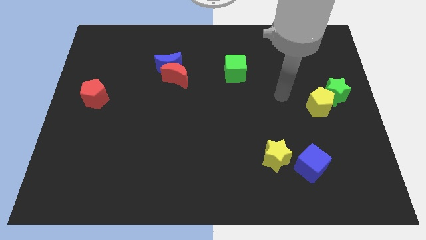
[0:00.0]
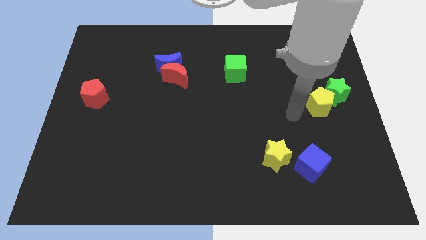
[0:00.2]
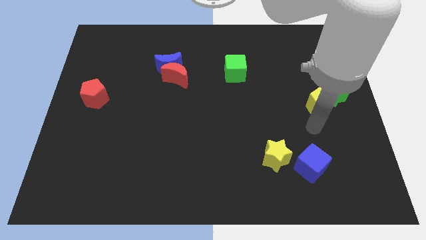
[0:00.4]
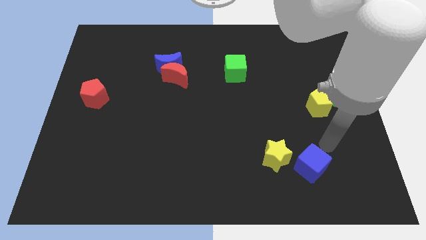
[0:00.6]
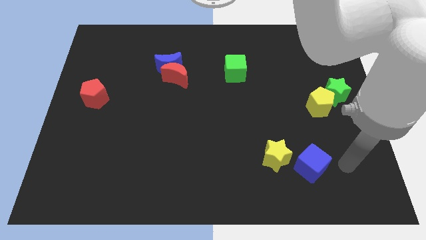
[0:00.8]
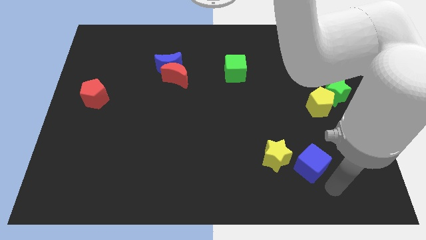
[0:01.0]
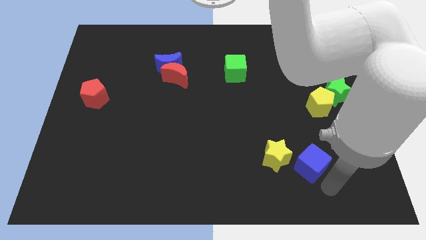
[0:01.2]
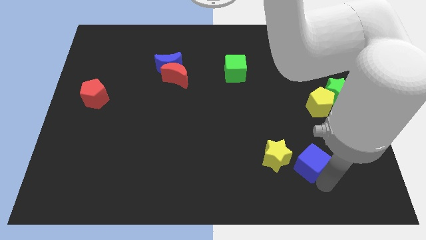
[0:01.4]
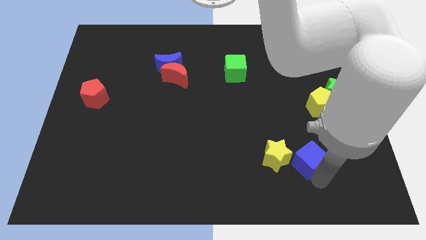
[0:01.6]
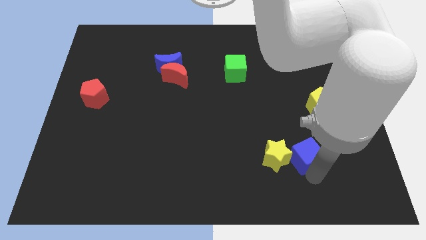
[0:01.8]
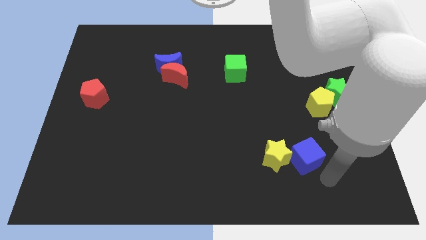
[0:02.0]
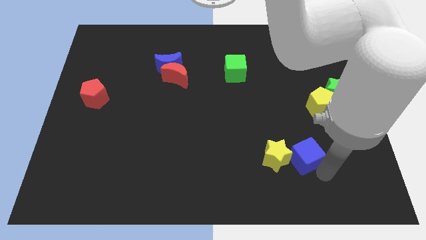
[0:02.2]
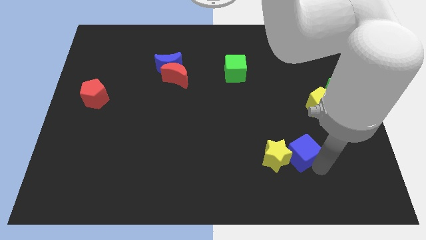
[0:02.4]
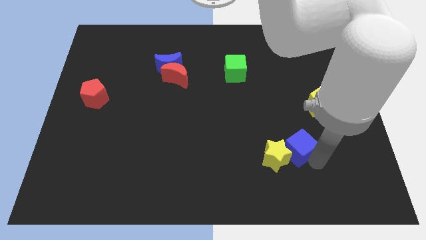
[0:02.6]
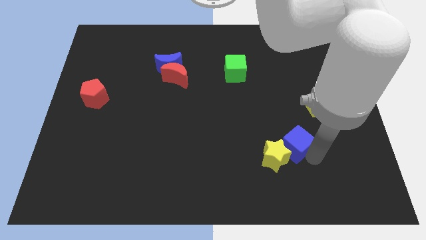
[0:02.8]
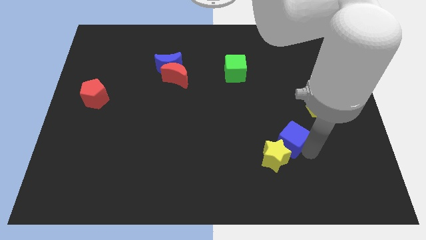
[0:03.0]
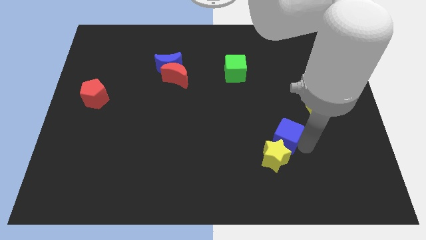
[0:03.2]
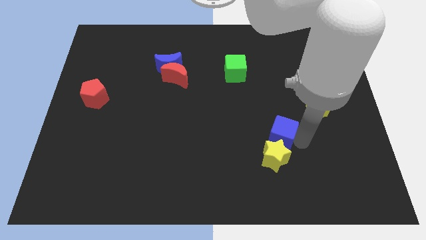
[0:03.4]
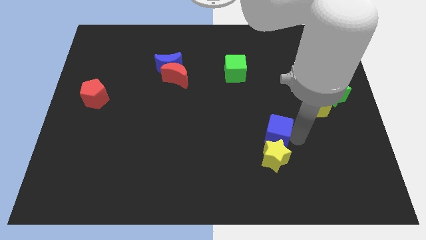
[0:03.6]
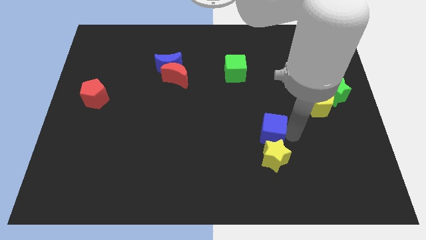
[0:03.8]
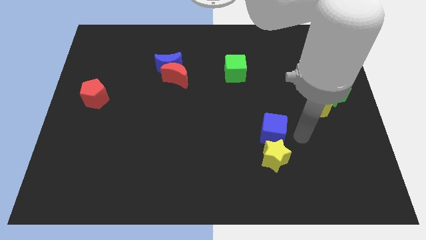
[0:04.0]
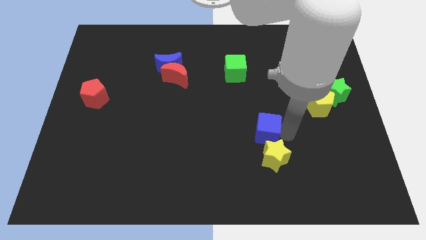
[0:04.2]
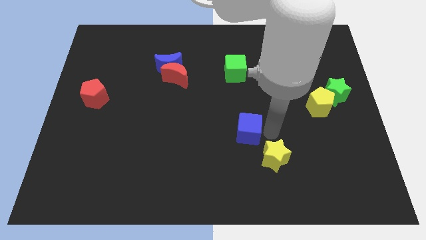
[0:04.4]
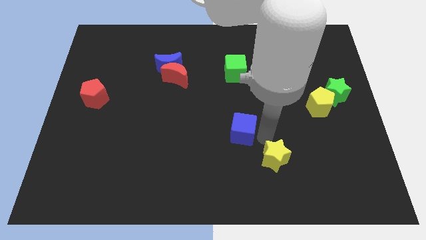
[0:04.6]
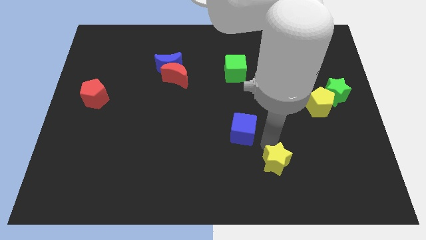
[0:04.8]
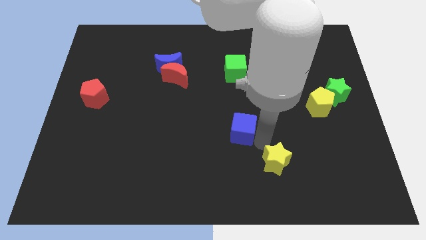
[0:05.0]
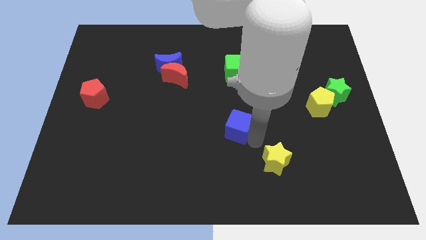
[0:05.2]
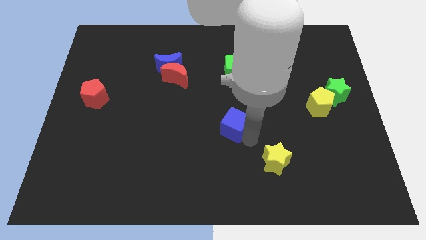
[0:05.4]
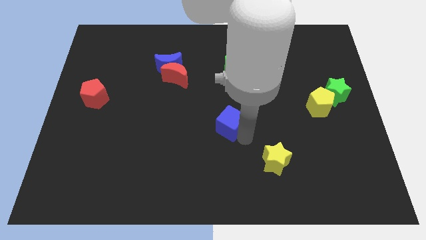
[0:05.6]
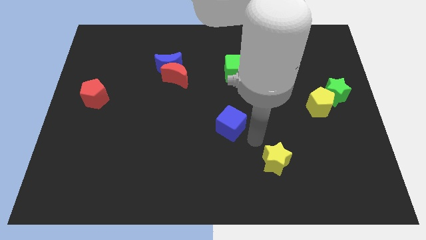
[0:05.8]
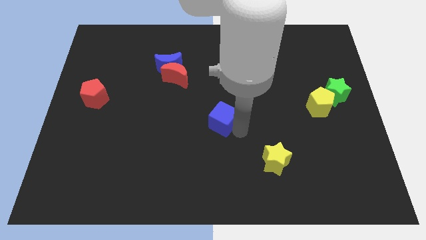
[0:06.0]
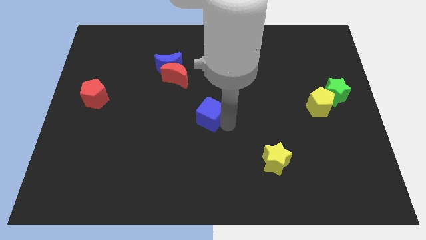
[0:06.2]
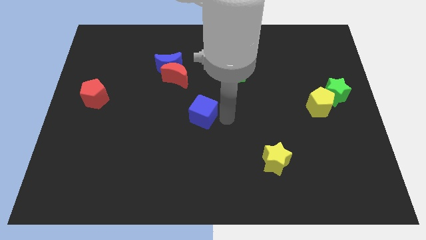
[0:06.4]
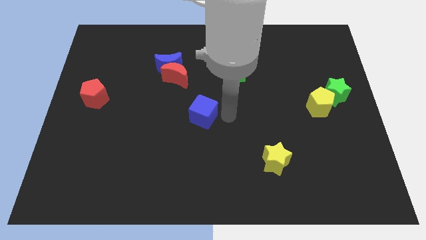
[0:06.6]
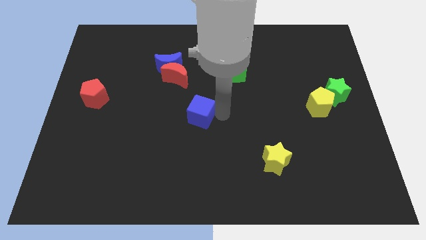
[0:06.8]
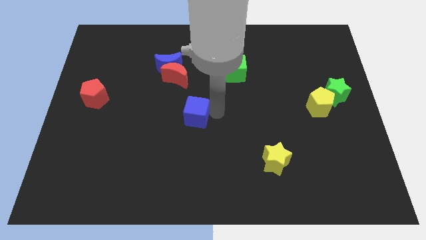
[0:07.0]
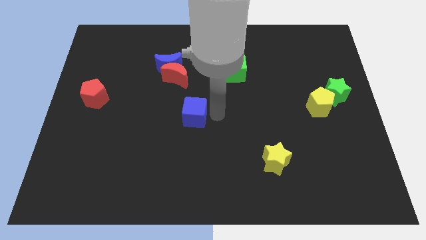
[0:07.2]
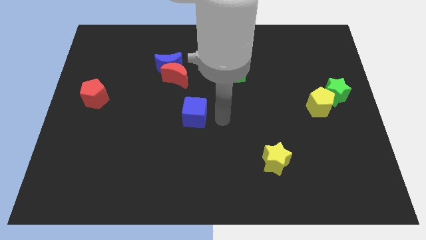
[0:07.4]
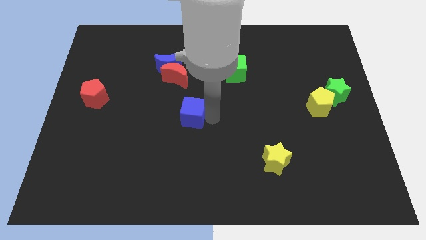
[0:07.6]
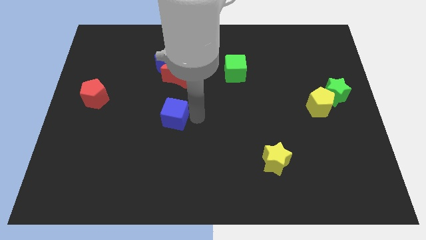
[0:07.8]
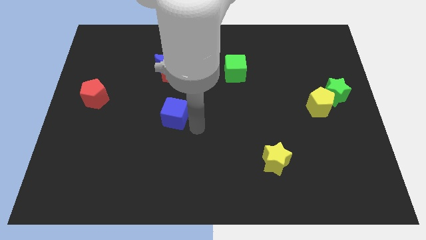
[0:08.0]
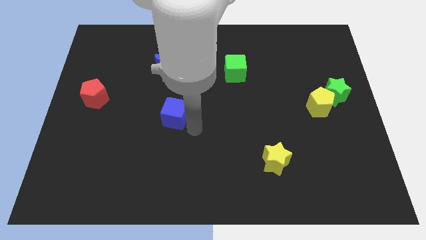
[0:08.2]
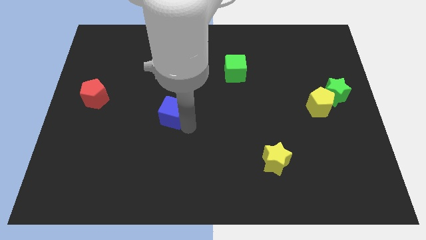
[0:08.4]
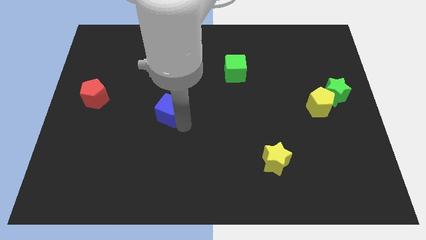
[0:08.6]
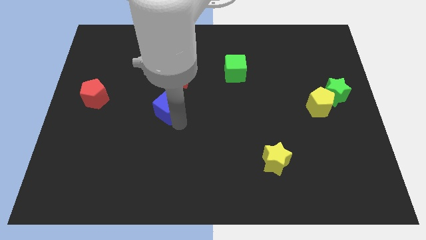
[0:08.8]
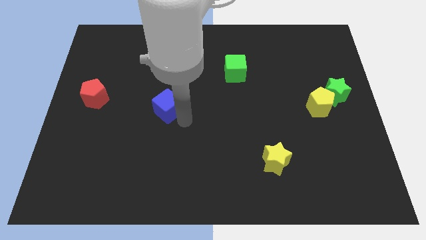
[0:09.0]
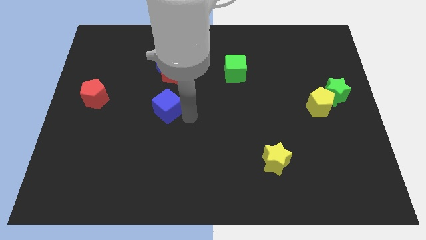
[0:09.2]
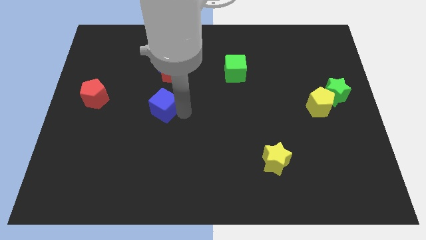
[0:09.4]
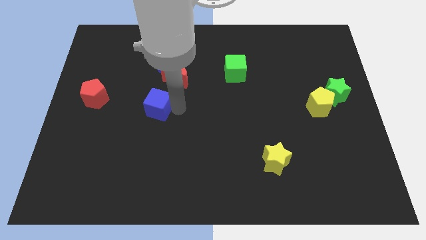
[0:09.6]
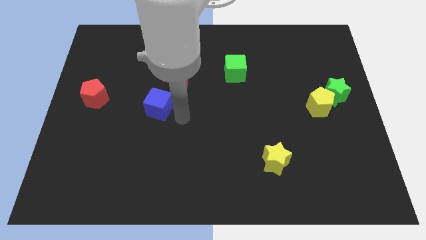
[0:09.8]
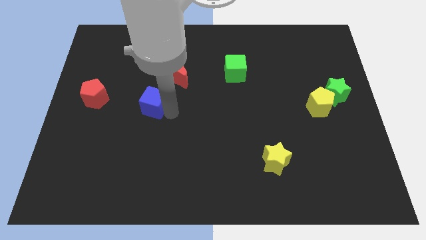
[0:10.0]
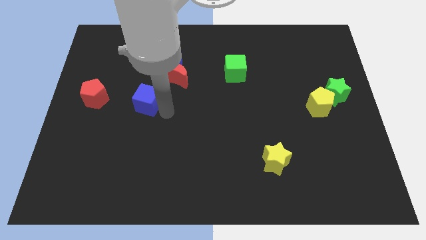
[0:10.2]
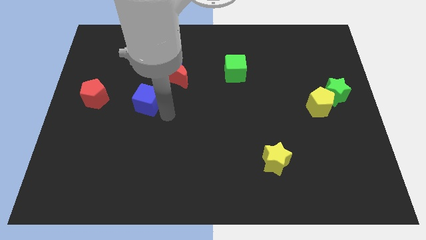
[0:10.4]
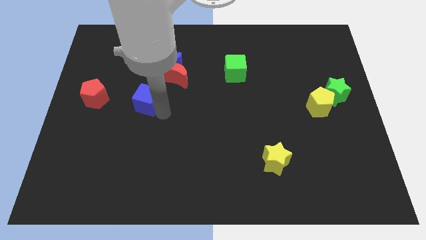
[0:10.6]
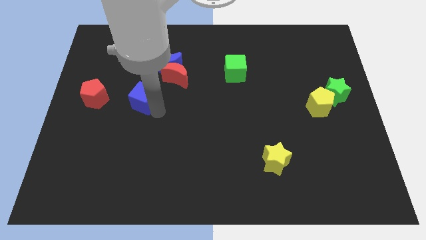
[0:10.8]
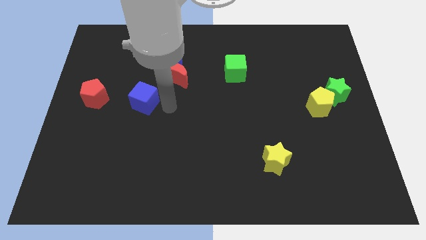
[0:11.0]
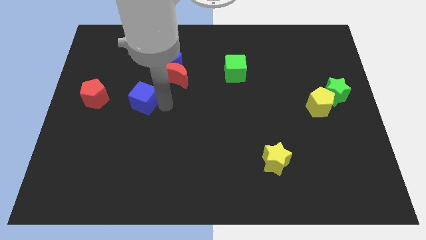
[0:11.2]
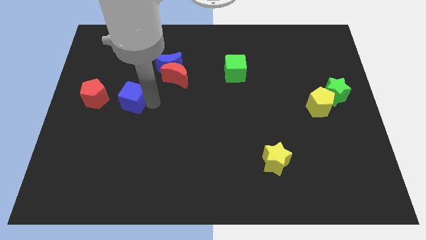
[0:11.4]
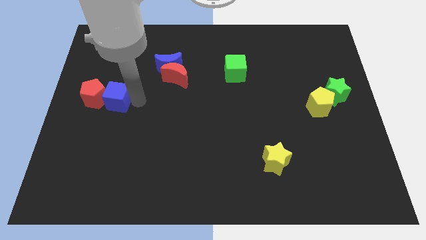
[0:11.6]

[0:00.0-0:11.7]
put the blue cube towards the red pentagon

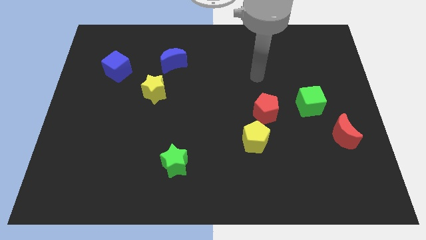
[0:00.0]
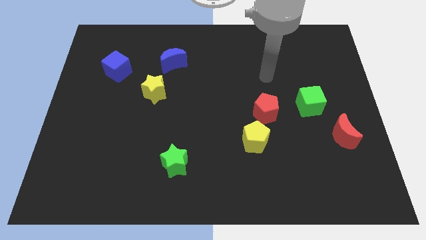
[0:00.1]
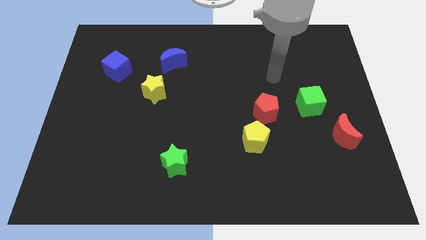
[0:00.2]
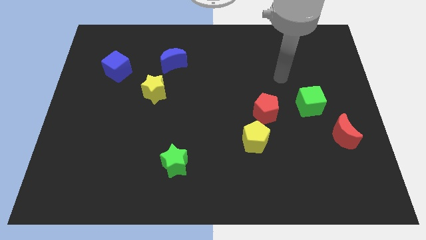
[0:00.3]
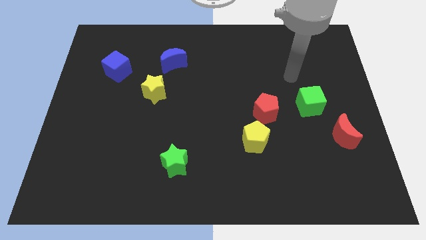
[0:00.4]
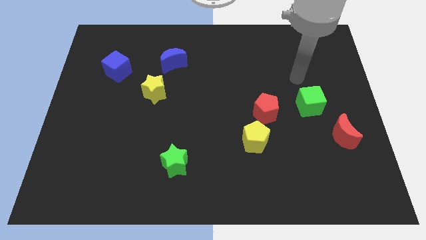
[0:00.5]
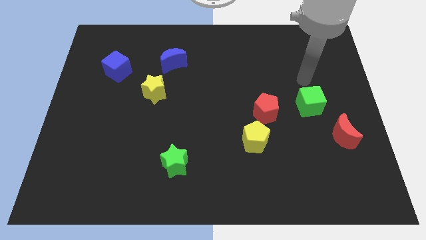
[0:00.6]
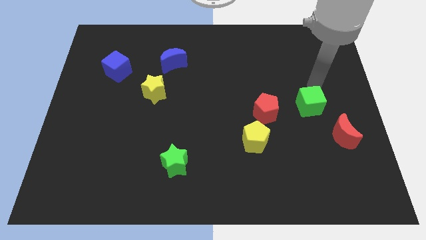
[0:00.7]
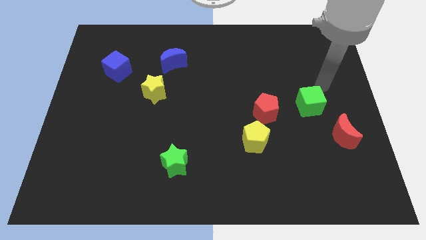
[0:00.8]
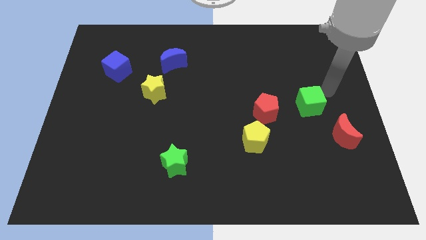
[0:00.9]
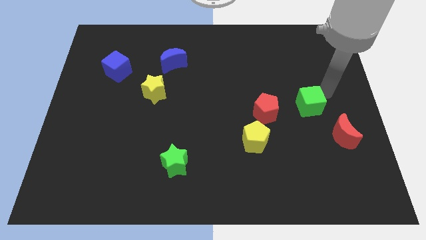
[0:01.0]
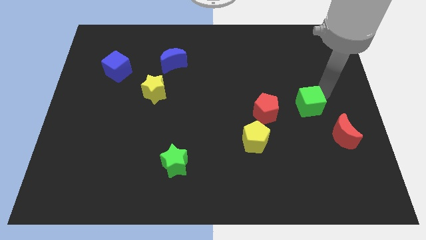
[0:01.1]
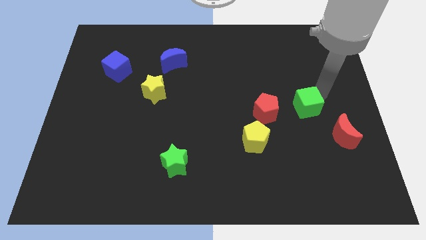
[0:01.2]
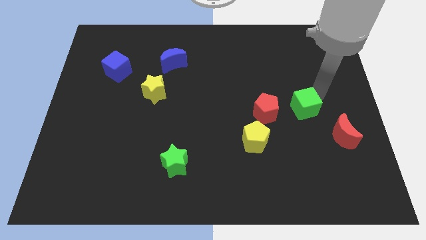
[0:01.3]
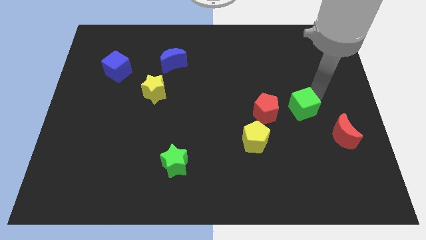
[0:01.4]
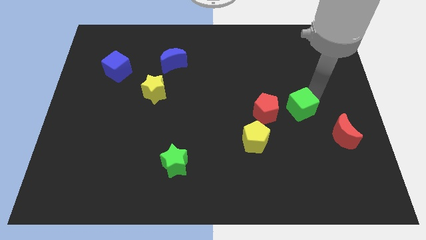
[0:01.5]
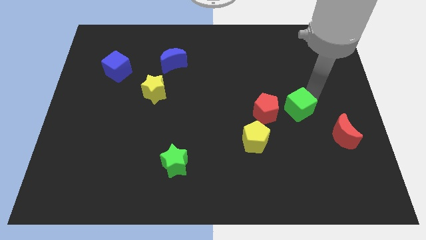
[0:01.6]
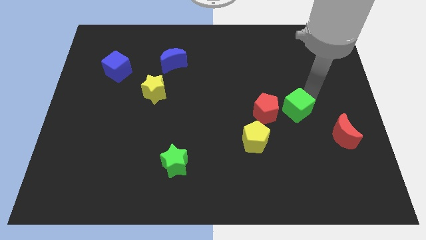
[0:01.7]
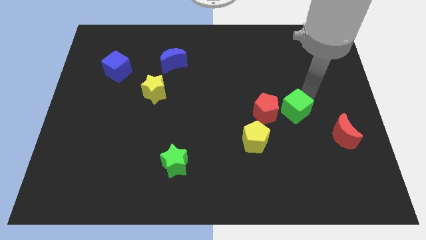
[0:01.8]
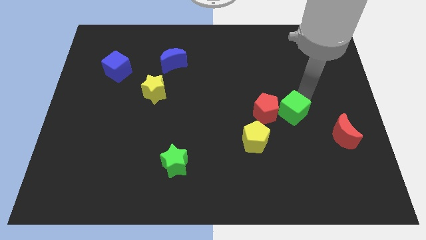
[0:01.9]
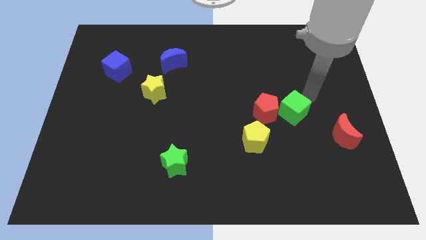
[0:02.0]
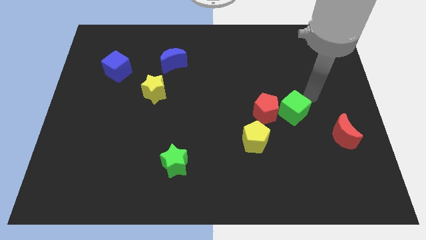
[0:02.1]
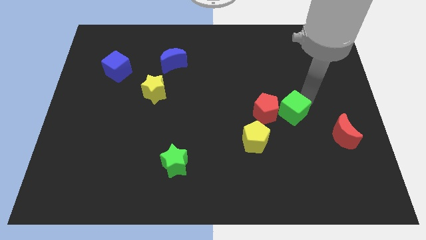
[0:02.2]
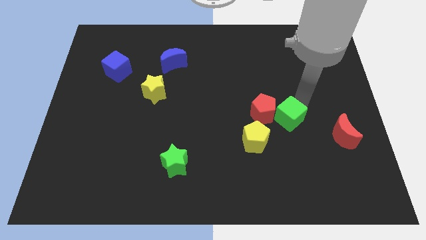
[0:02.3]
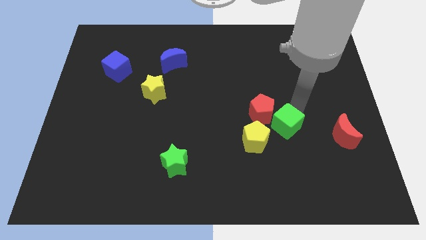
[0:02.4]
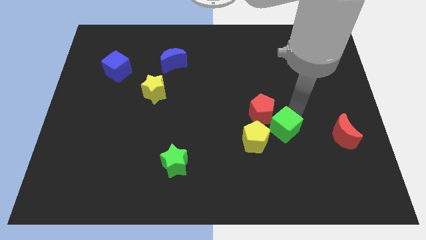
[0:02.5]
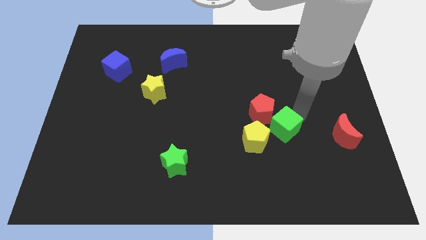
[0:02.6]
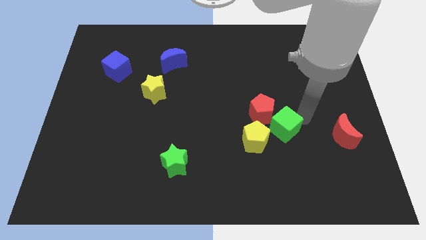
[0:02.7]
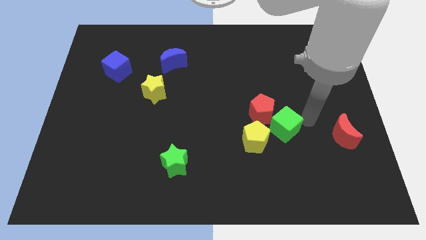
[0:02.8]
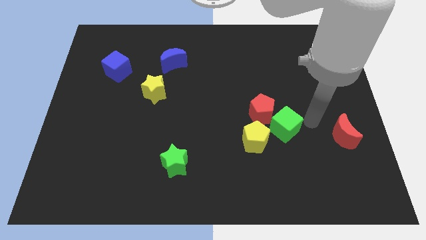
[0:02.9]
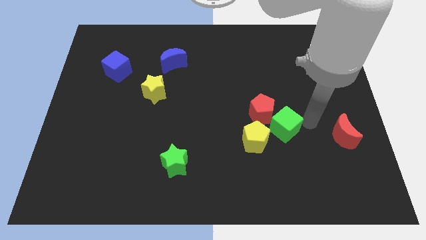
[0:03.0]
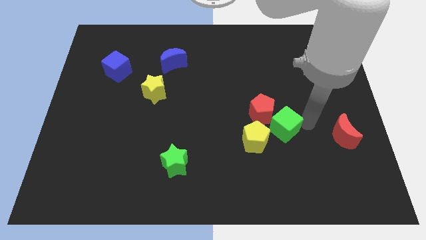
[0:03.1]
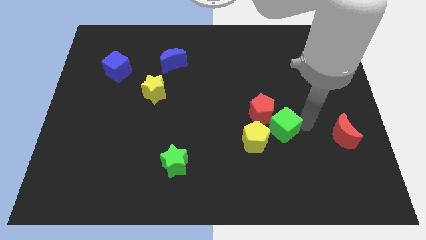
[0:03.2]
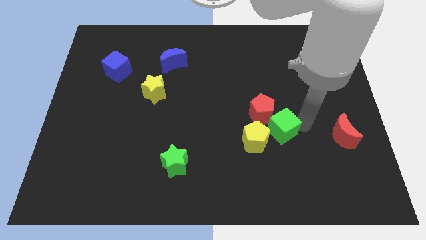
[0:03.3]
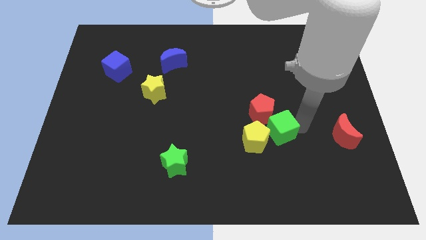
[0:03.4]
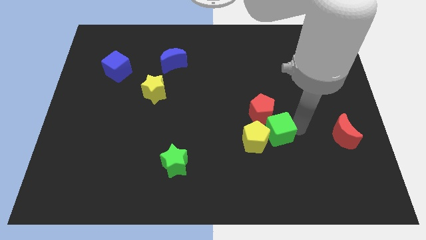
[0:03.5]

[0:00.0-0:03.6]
put the green cube next to the yellow pentagon
